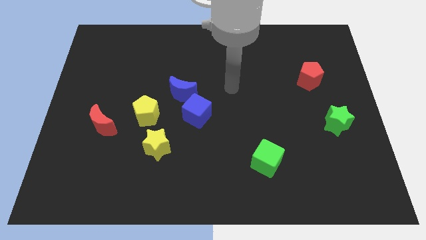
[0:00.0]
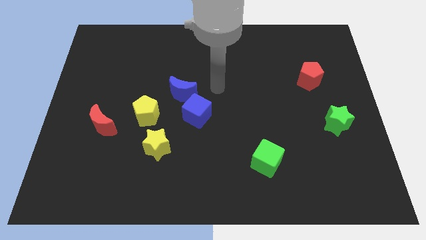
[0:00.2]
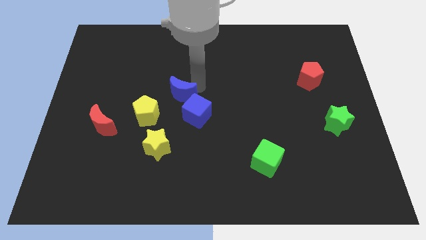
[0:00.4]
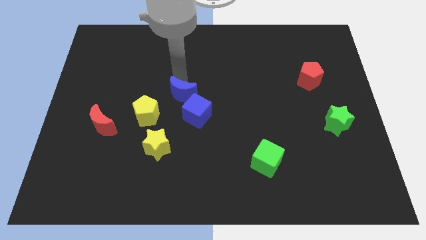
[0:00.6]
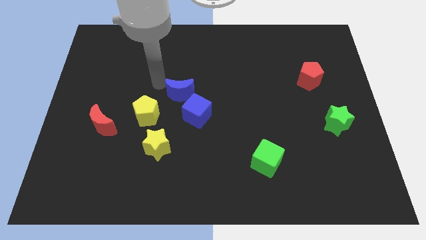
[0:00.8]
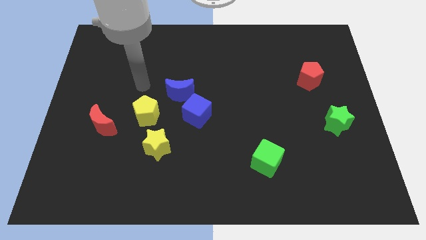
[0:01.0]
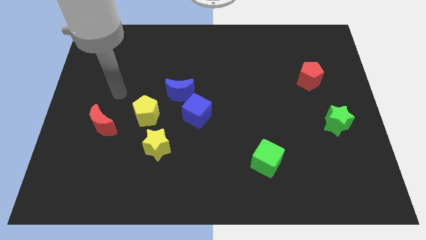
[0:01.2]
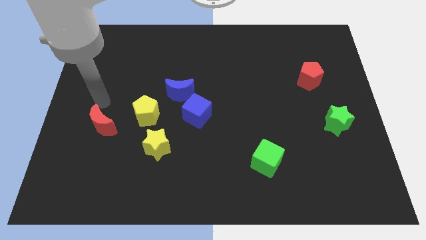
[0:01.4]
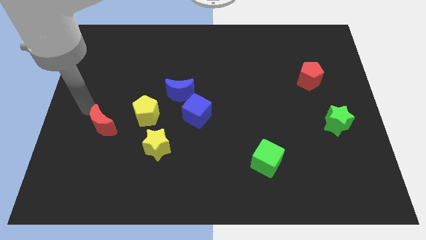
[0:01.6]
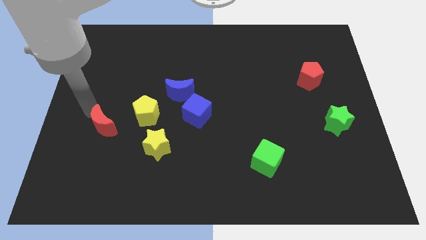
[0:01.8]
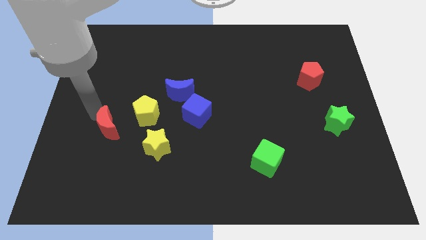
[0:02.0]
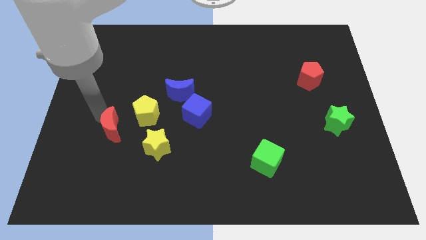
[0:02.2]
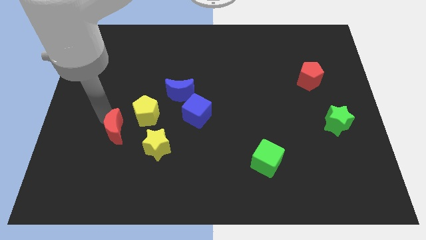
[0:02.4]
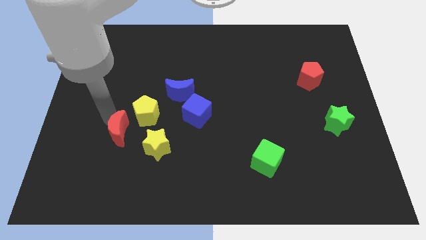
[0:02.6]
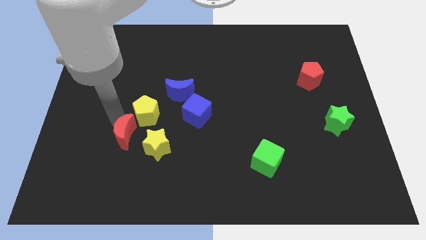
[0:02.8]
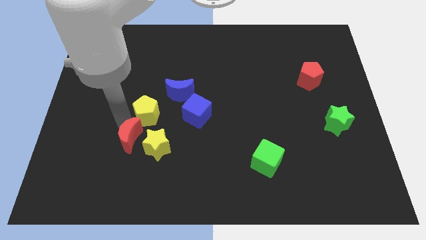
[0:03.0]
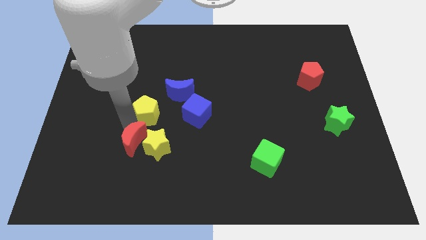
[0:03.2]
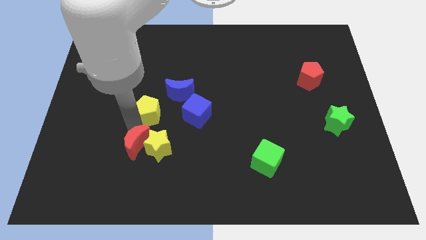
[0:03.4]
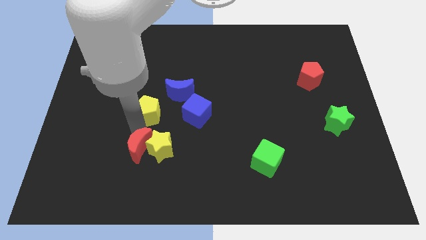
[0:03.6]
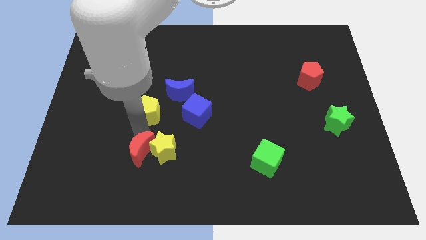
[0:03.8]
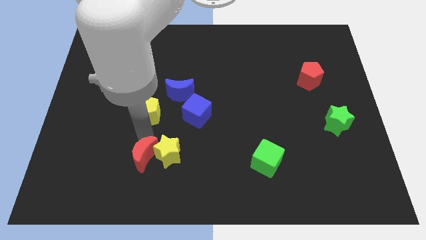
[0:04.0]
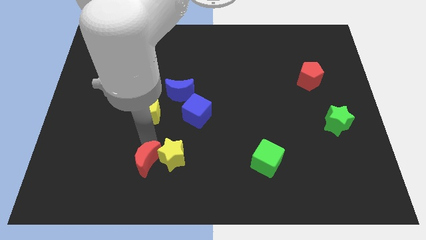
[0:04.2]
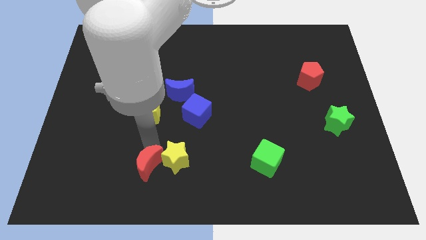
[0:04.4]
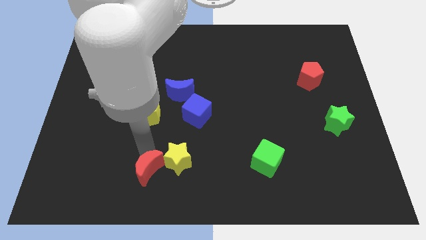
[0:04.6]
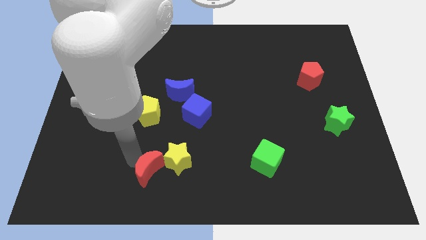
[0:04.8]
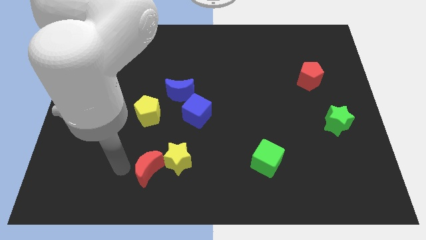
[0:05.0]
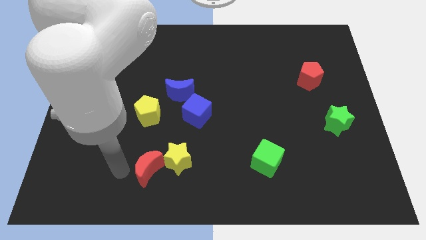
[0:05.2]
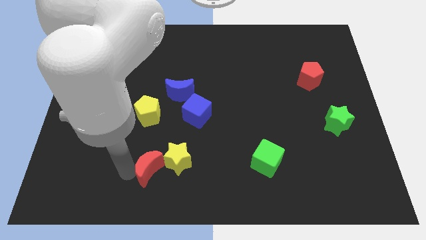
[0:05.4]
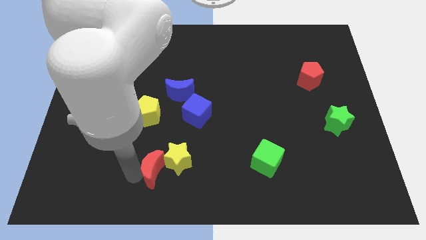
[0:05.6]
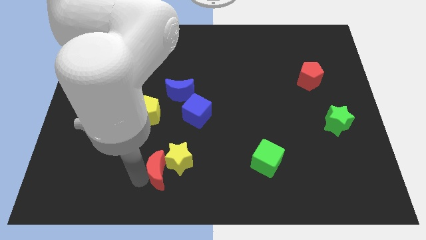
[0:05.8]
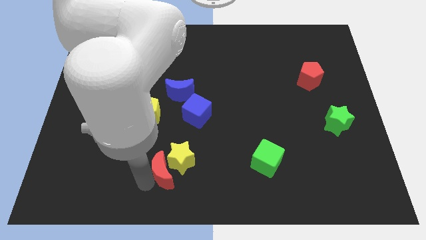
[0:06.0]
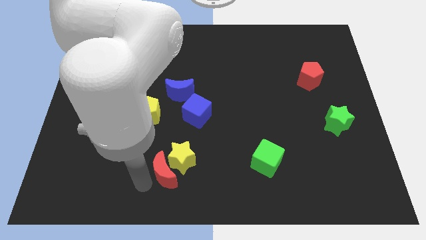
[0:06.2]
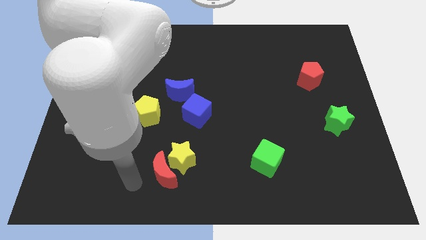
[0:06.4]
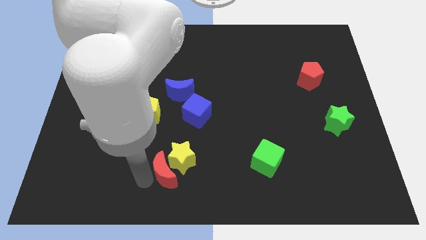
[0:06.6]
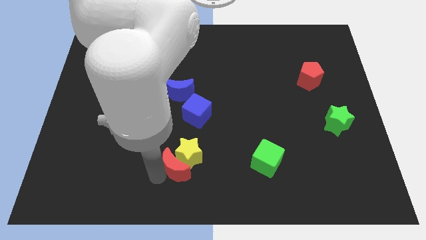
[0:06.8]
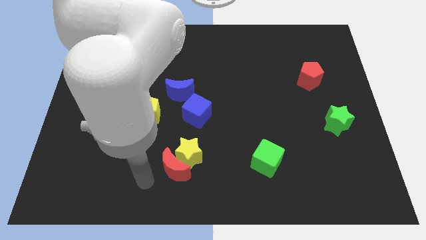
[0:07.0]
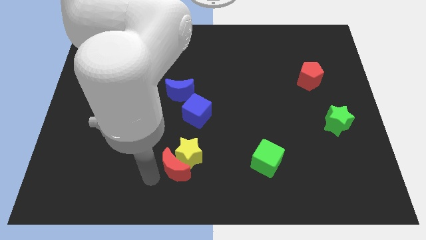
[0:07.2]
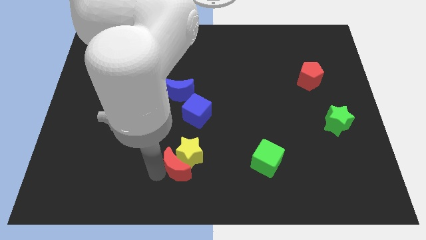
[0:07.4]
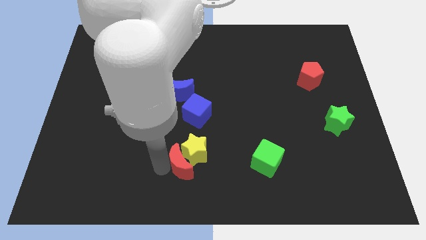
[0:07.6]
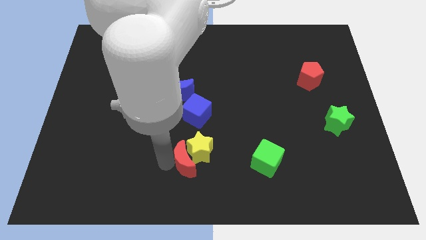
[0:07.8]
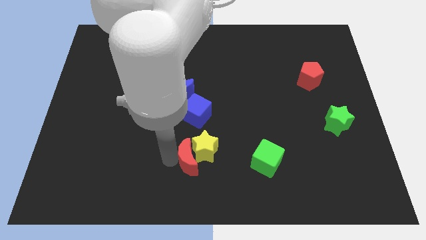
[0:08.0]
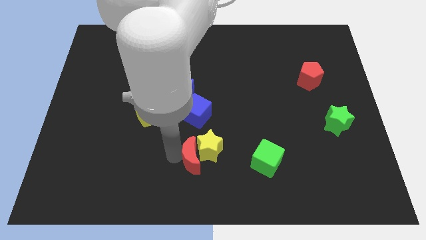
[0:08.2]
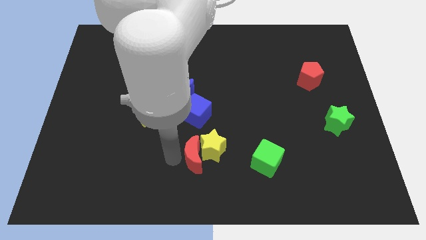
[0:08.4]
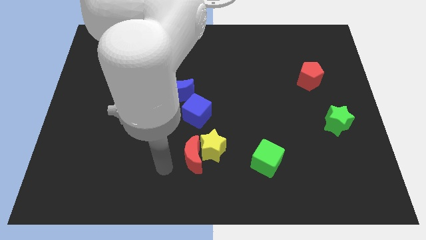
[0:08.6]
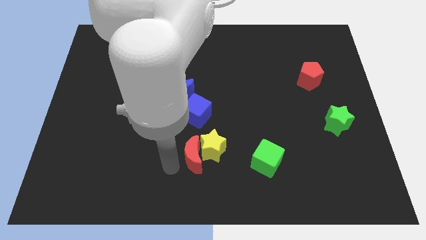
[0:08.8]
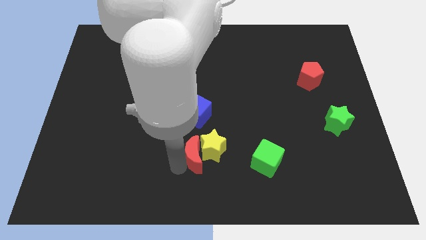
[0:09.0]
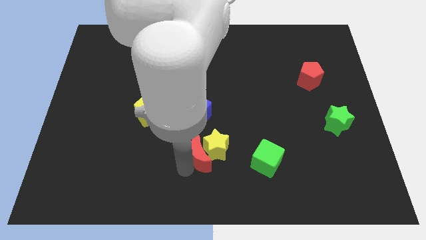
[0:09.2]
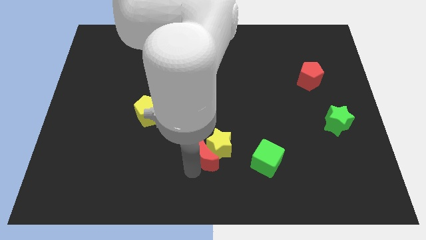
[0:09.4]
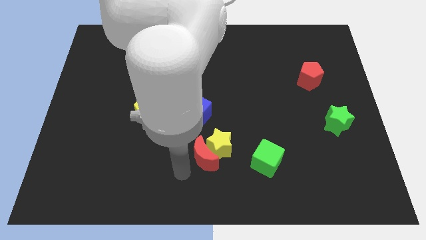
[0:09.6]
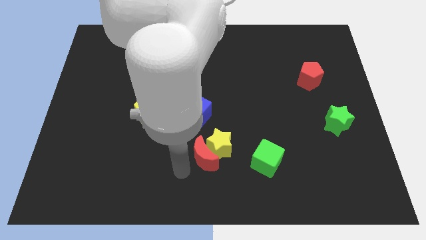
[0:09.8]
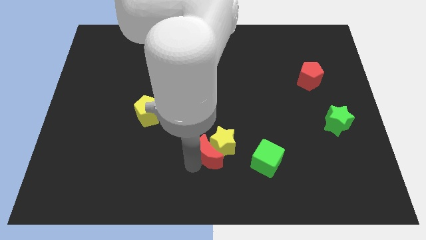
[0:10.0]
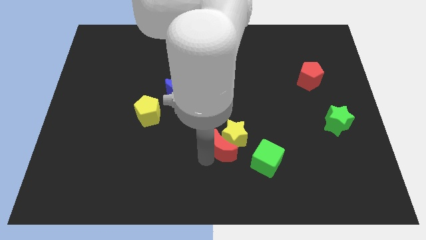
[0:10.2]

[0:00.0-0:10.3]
put the red moon diagonally up and to the left of the green cube

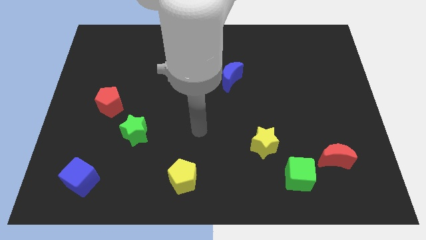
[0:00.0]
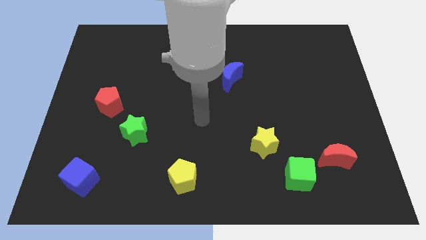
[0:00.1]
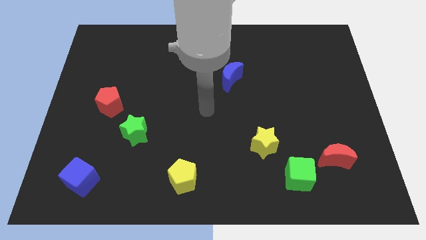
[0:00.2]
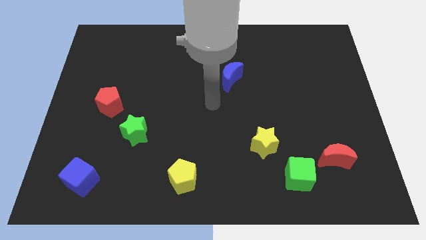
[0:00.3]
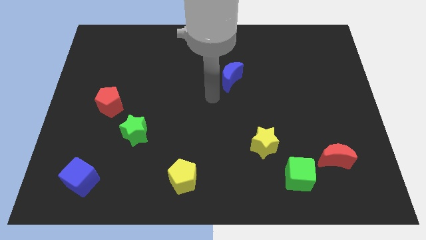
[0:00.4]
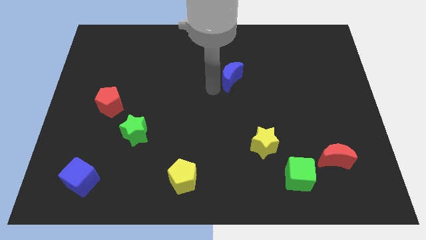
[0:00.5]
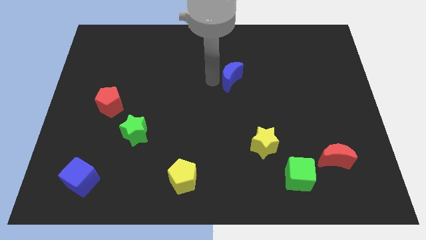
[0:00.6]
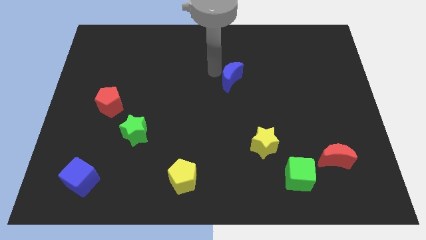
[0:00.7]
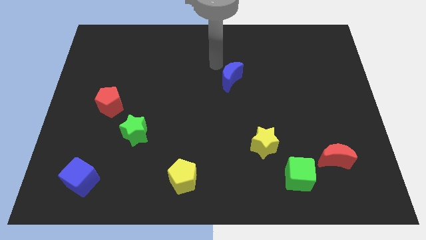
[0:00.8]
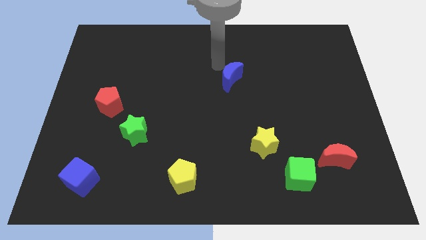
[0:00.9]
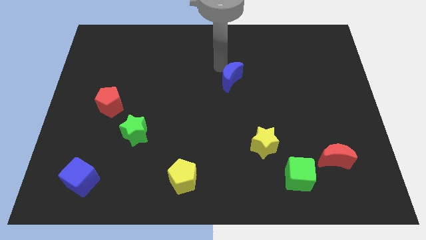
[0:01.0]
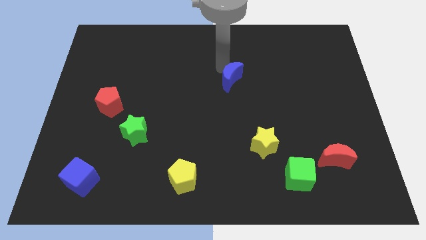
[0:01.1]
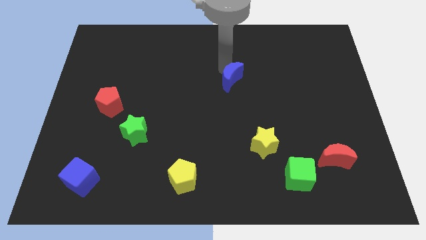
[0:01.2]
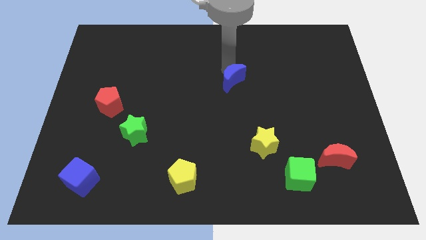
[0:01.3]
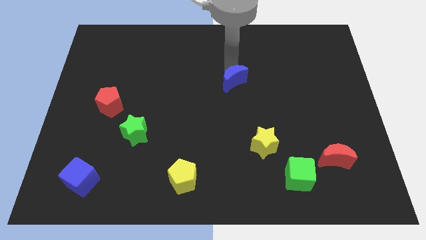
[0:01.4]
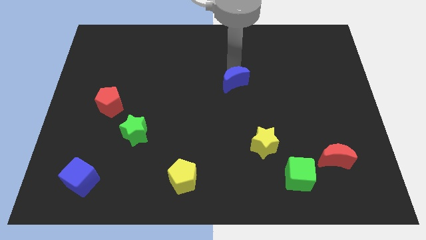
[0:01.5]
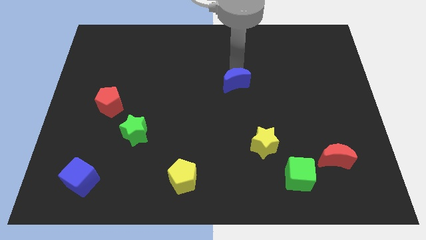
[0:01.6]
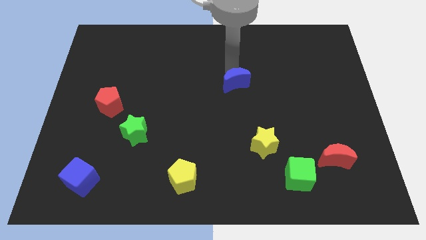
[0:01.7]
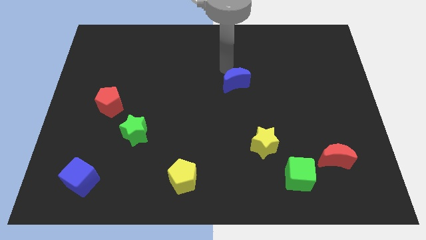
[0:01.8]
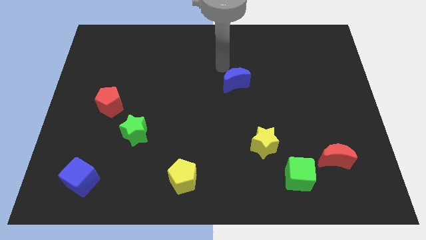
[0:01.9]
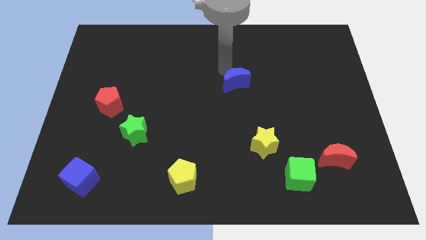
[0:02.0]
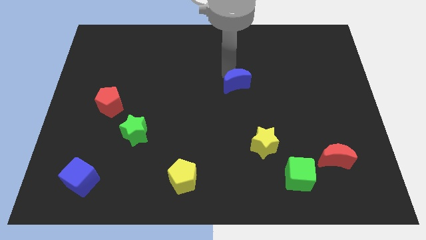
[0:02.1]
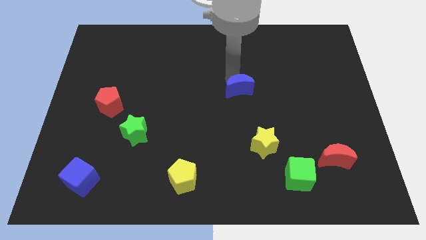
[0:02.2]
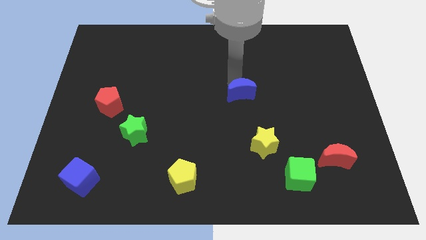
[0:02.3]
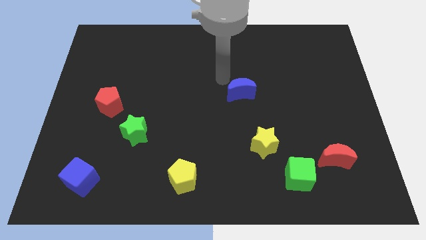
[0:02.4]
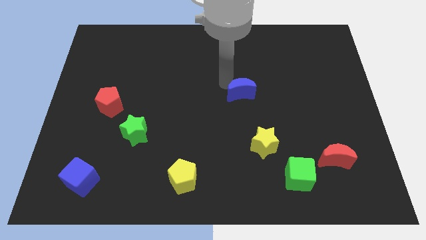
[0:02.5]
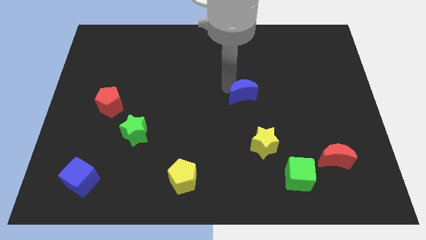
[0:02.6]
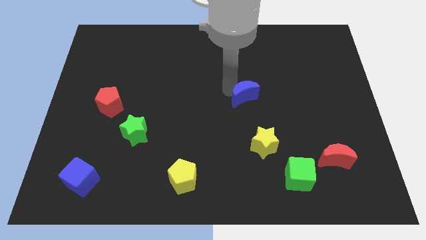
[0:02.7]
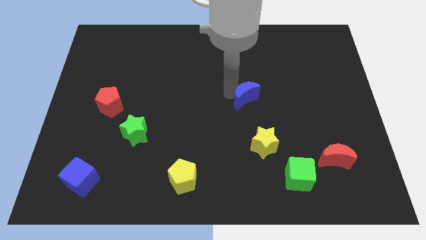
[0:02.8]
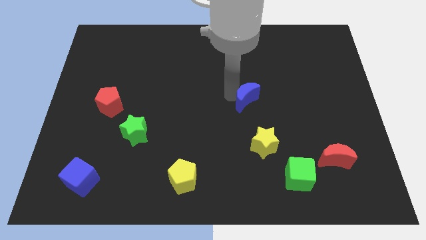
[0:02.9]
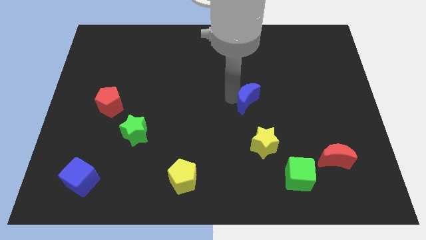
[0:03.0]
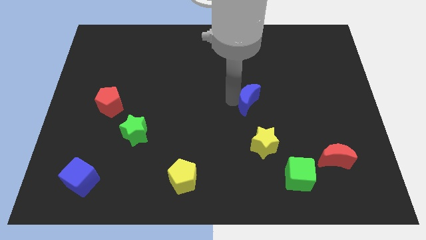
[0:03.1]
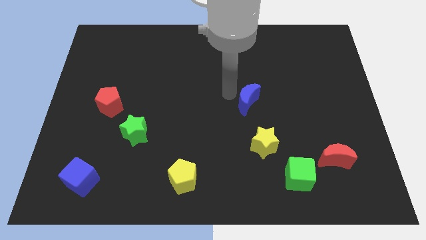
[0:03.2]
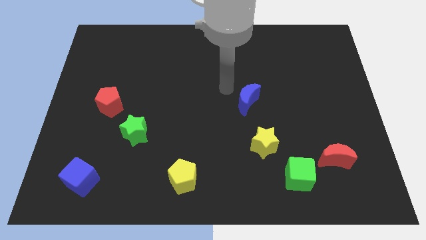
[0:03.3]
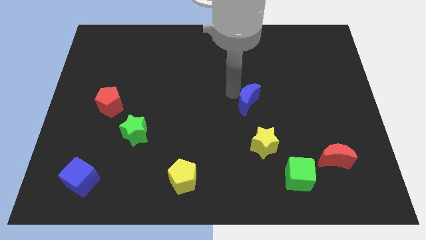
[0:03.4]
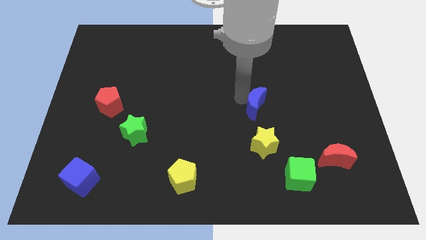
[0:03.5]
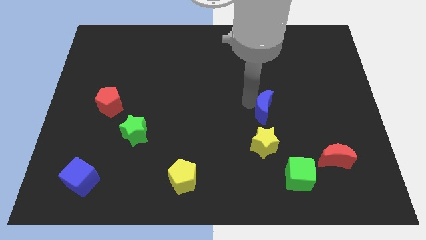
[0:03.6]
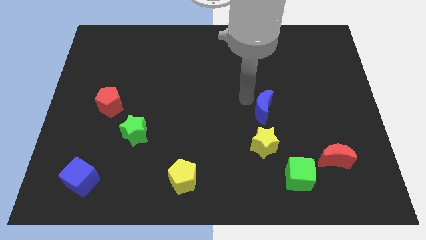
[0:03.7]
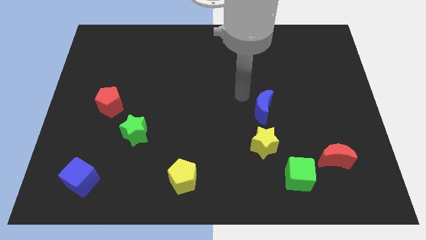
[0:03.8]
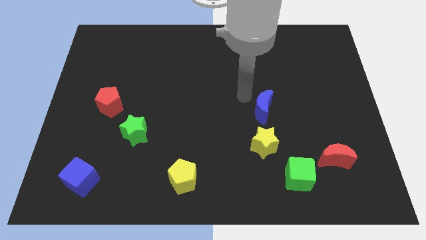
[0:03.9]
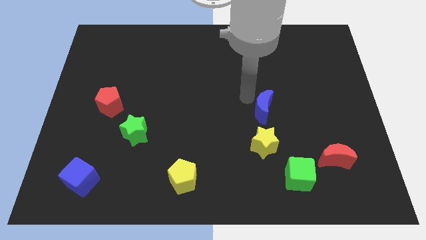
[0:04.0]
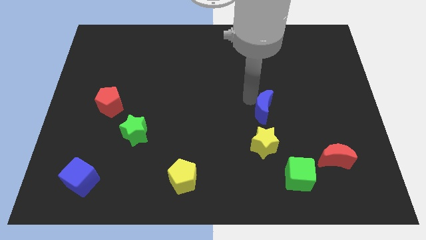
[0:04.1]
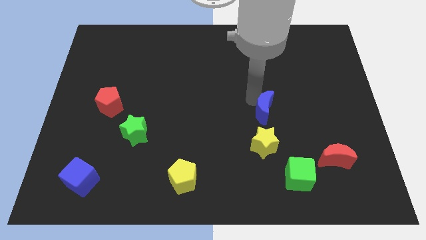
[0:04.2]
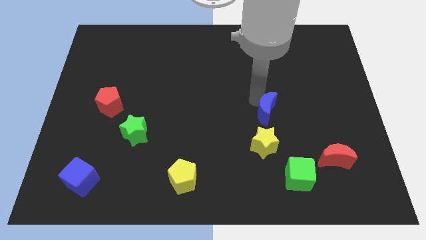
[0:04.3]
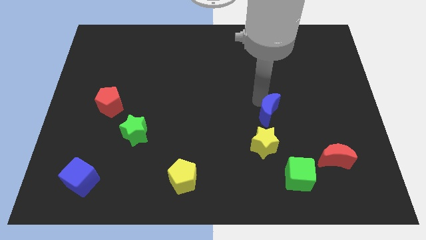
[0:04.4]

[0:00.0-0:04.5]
move the blue moon to the top right side of the yellow star
